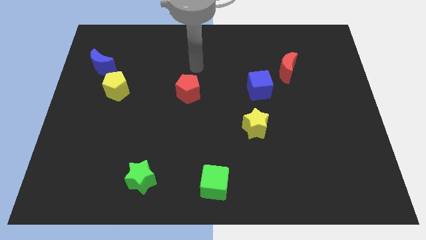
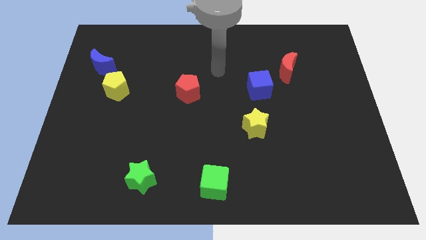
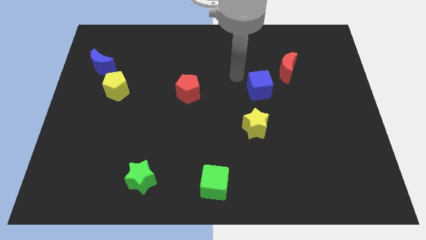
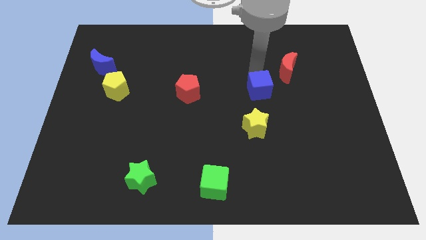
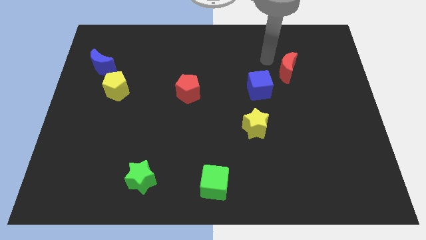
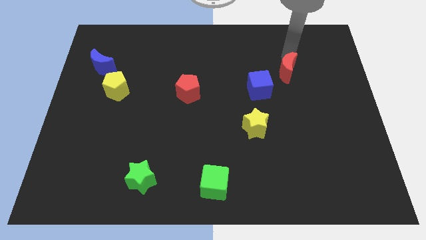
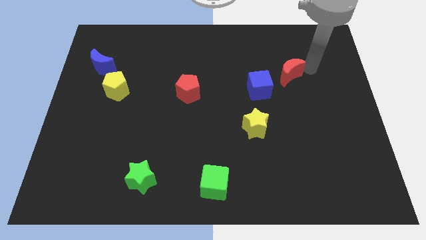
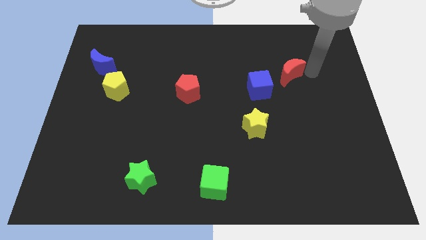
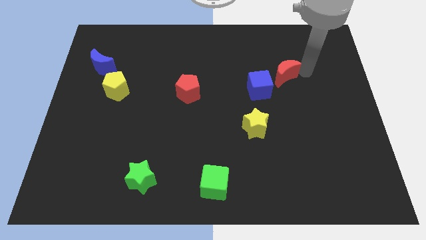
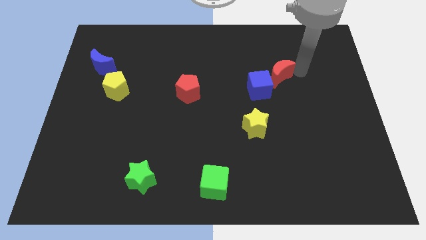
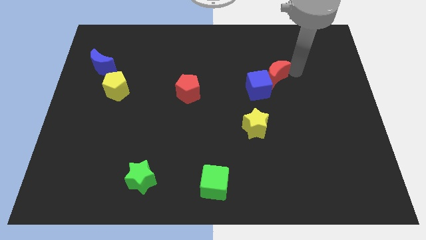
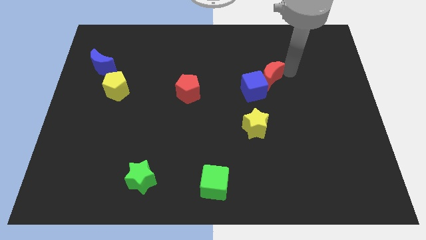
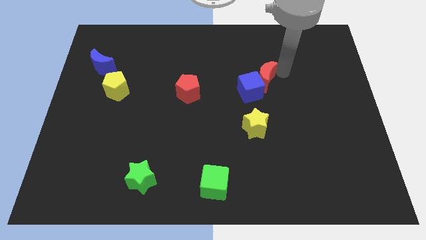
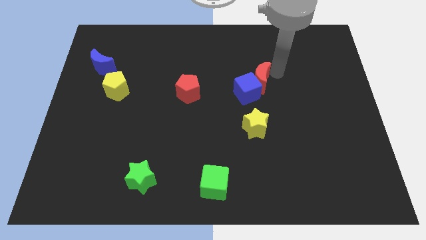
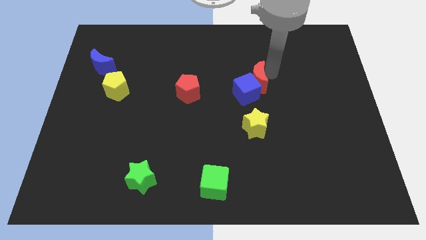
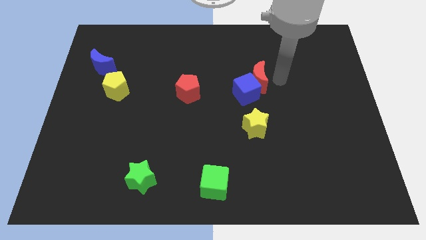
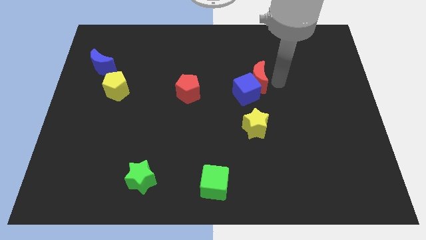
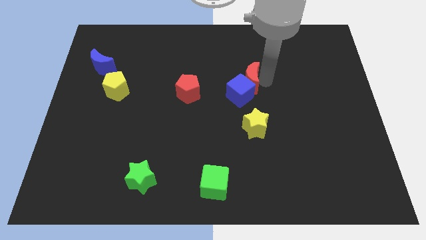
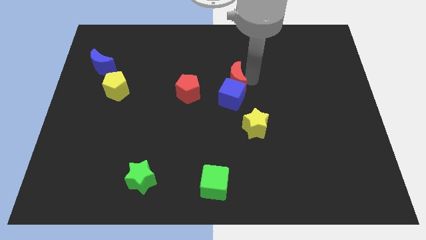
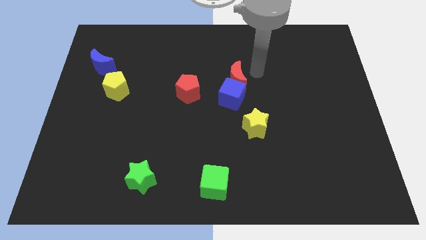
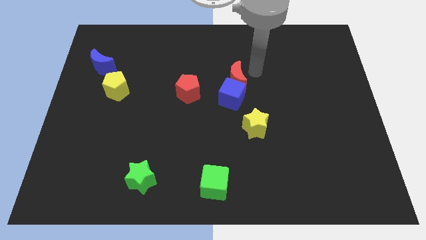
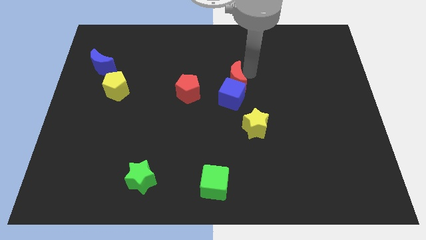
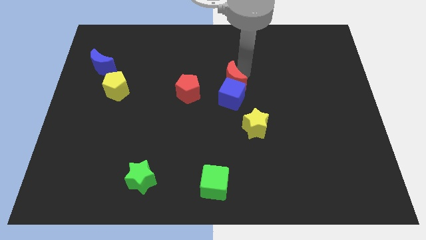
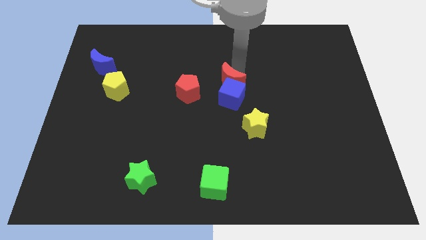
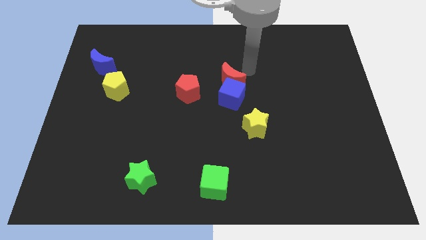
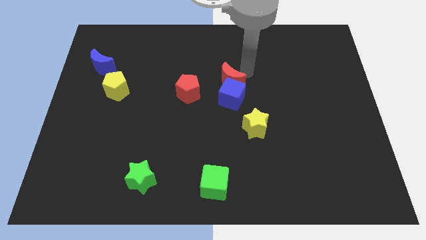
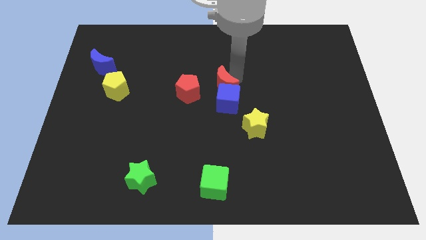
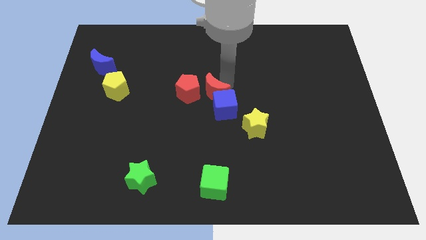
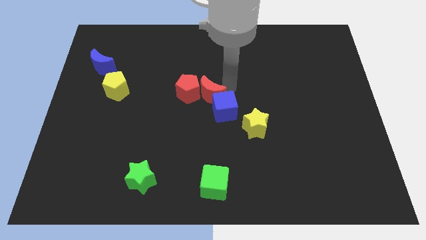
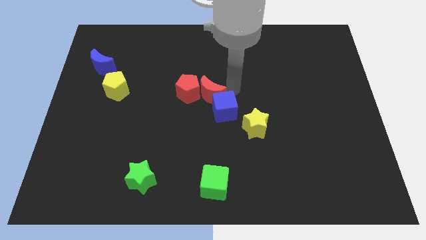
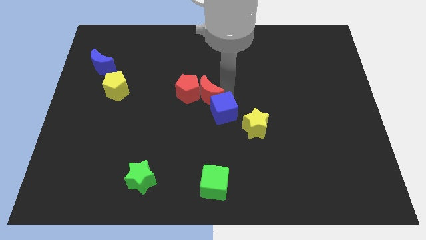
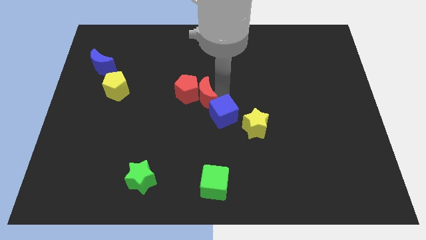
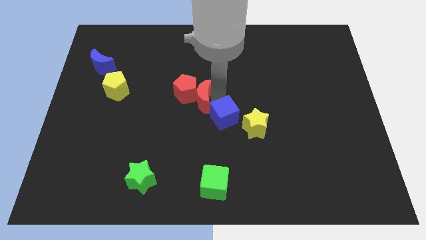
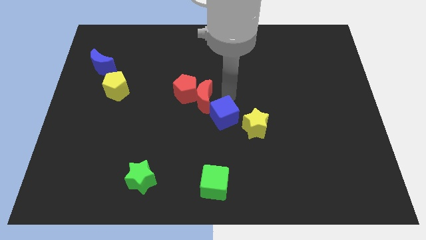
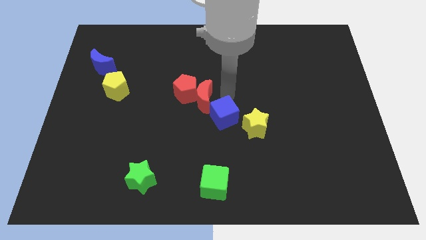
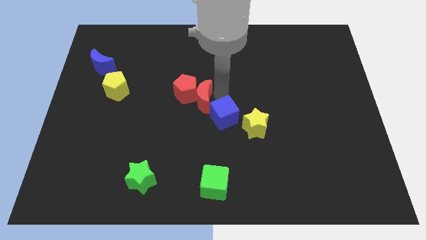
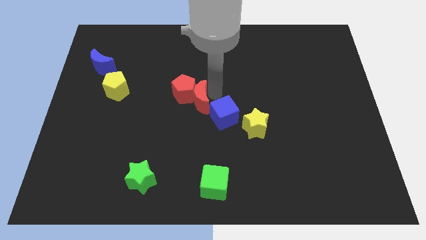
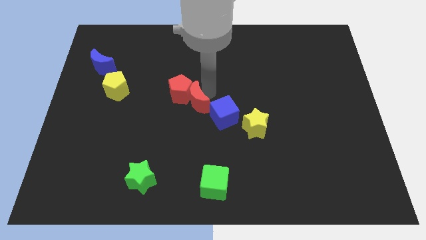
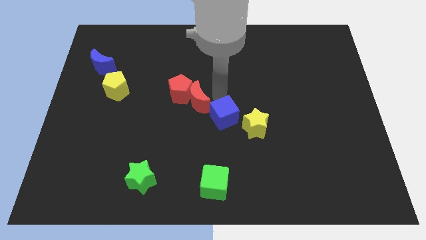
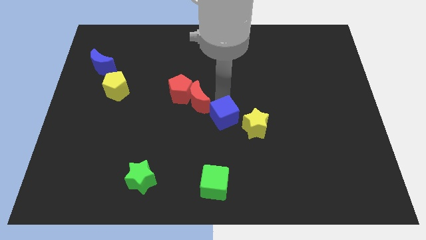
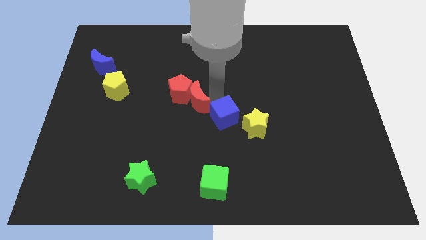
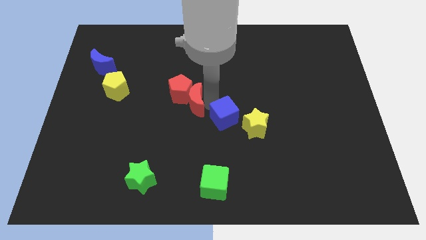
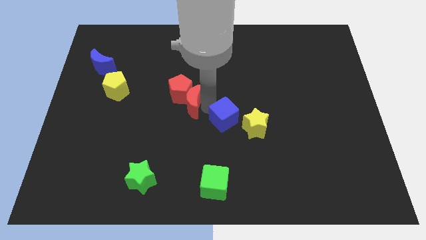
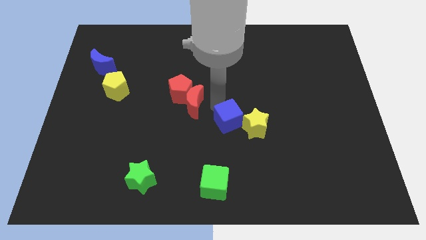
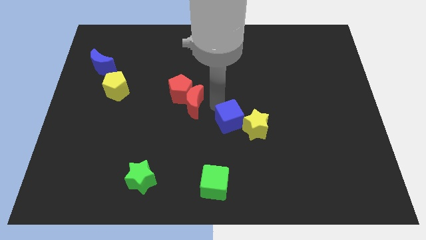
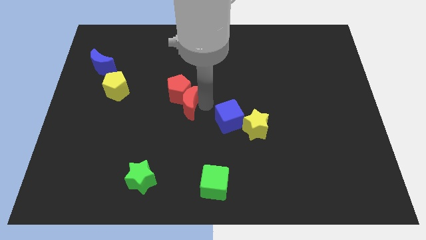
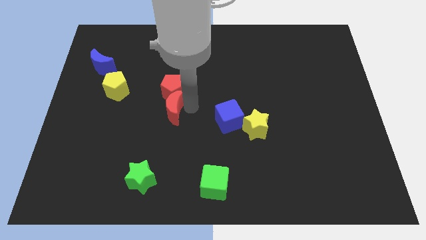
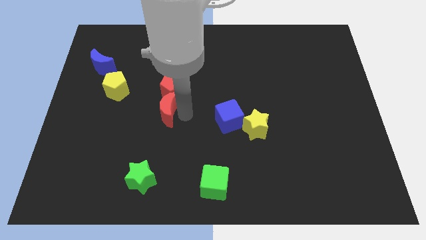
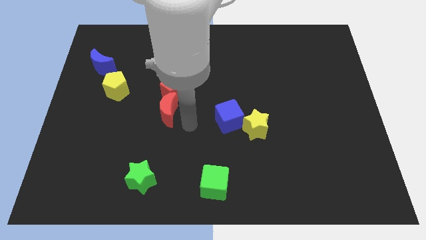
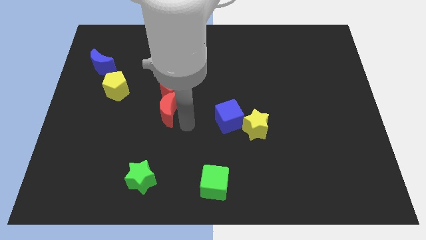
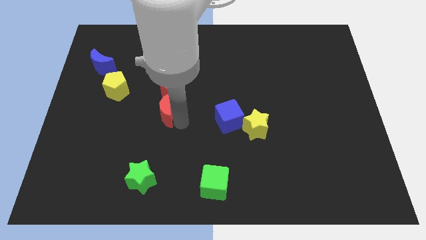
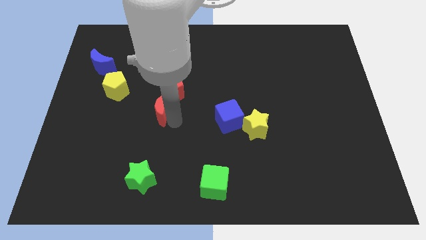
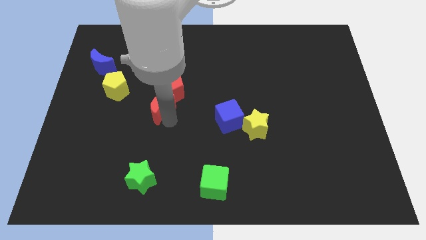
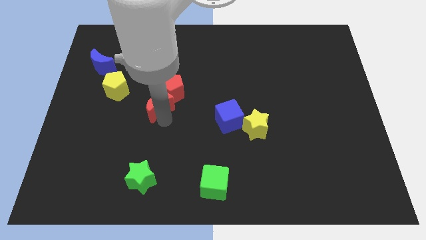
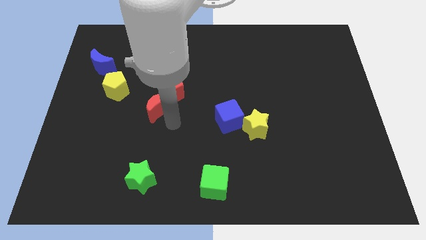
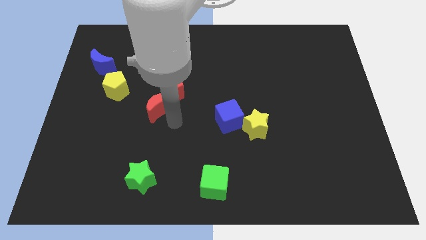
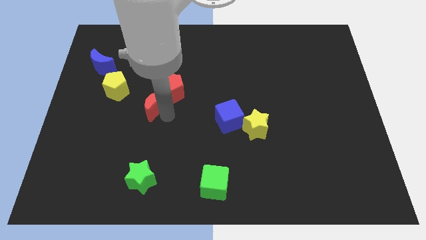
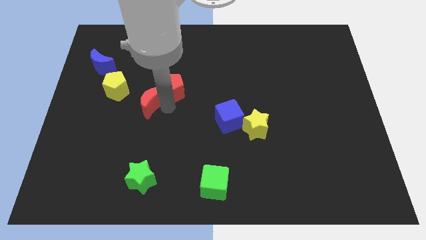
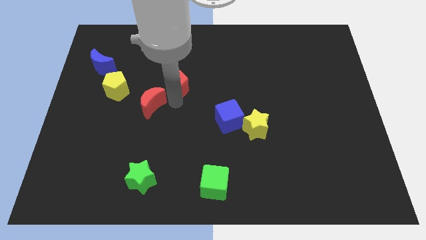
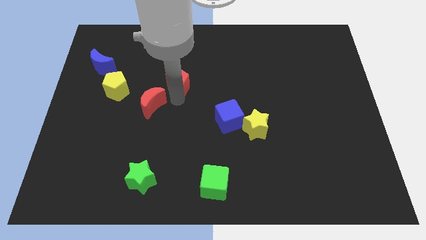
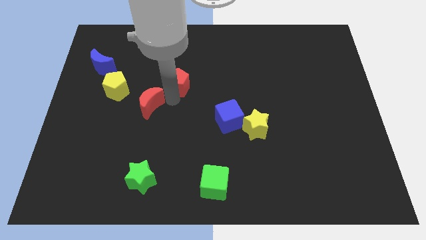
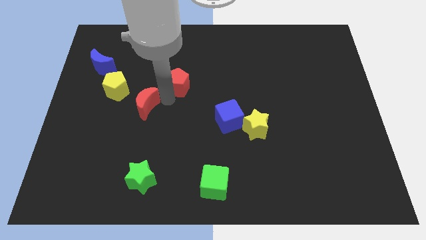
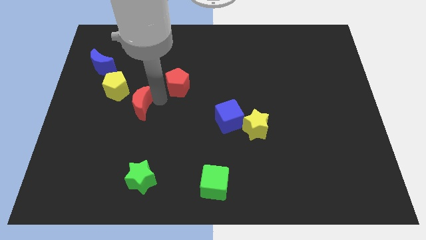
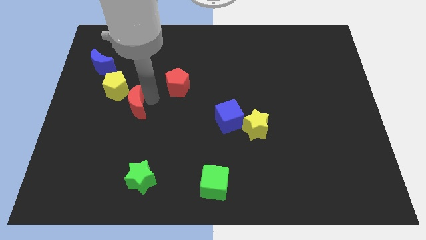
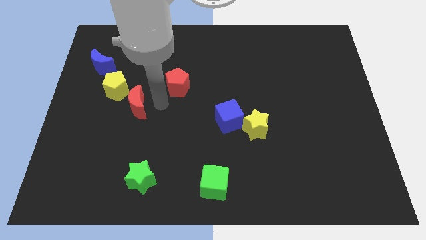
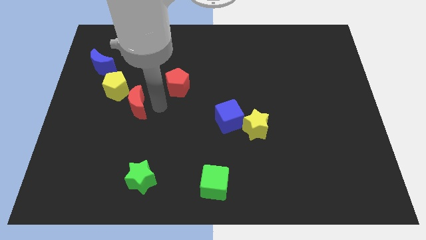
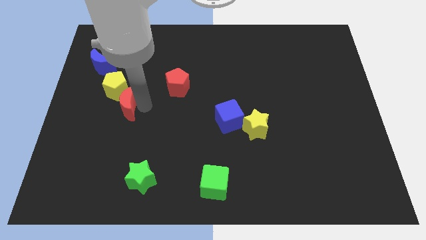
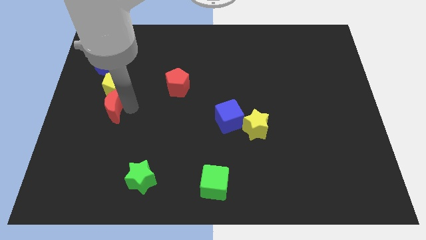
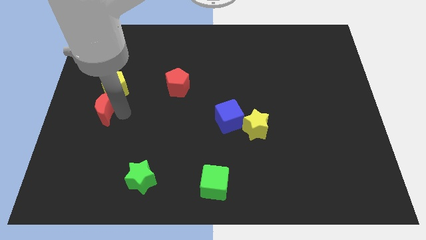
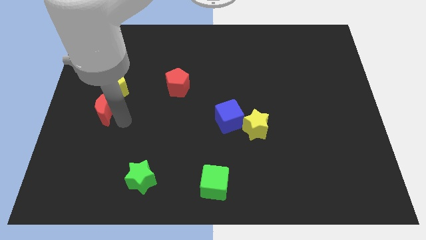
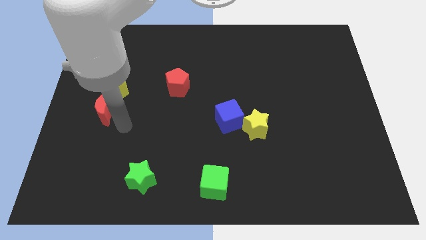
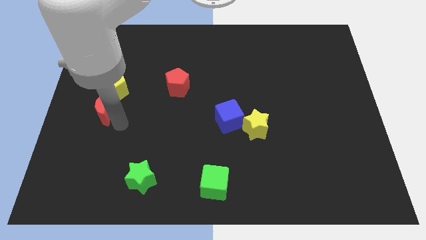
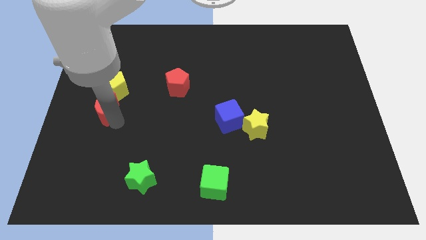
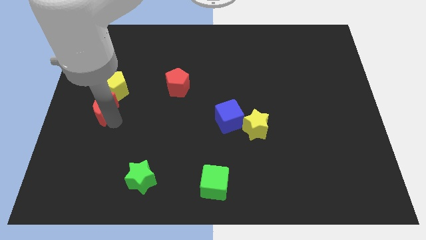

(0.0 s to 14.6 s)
put the red moon to the left side of the board
